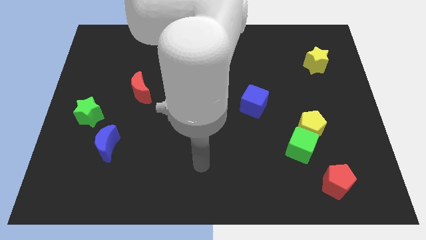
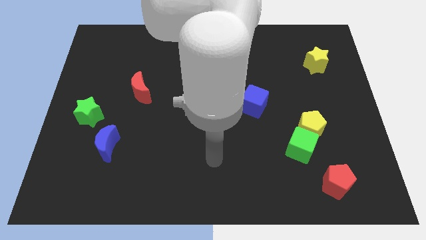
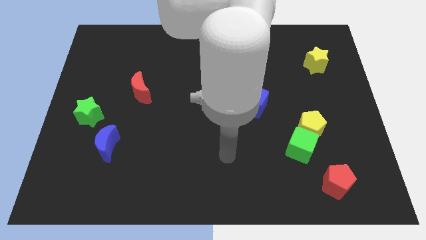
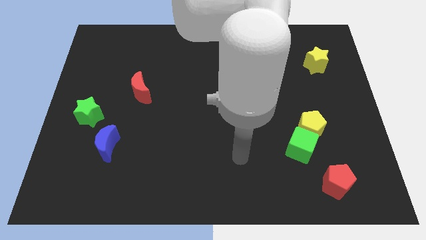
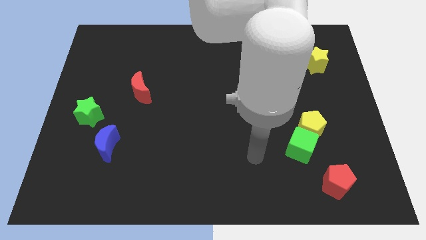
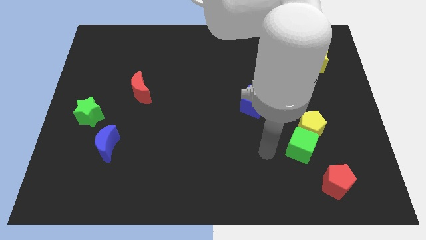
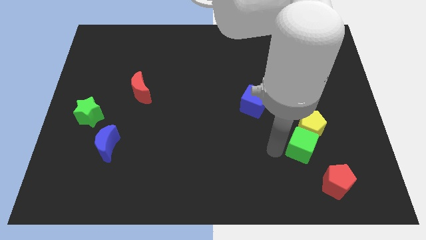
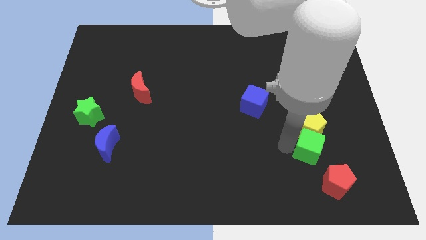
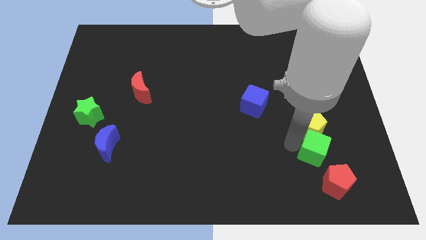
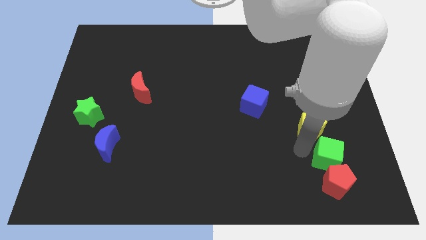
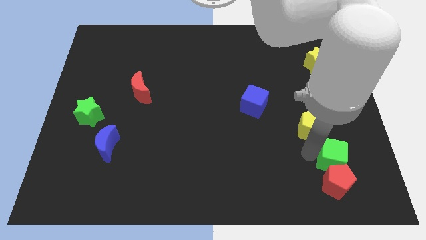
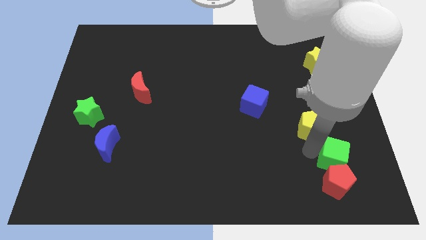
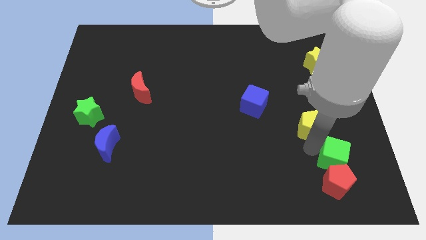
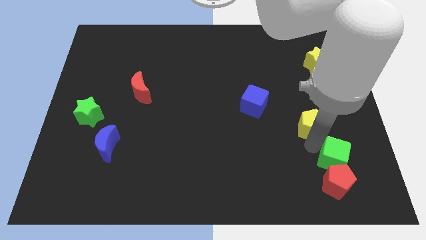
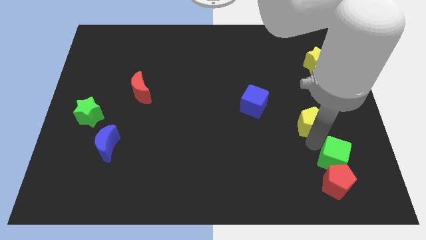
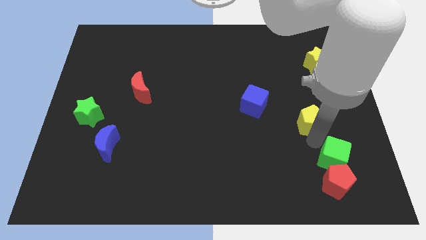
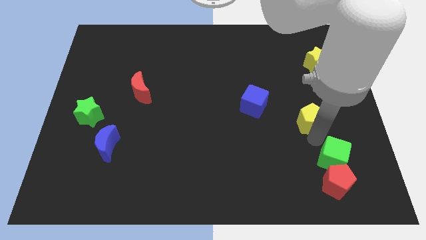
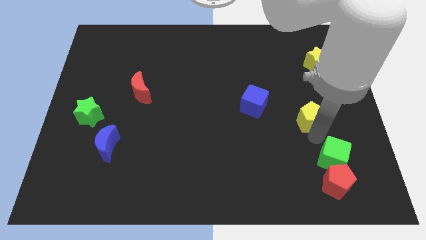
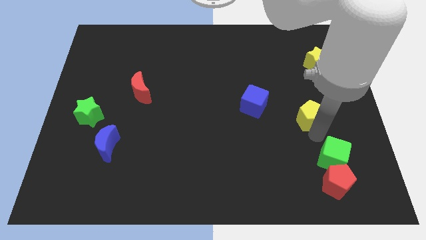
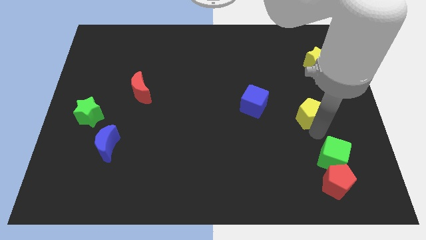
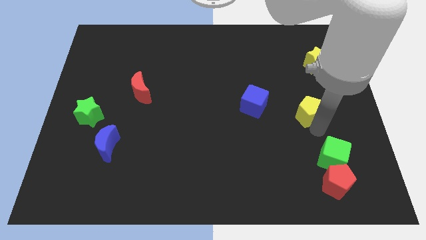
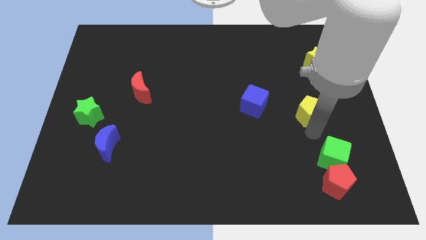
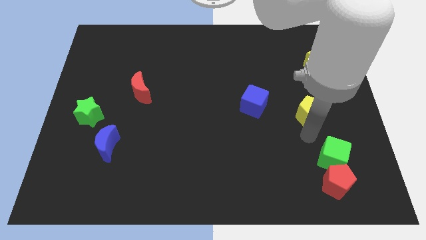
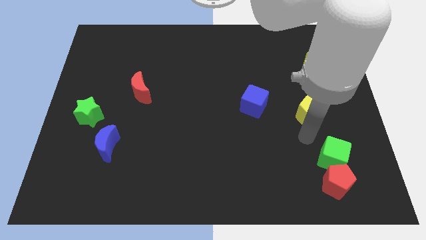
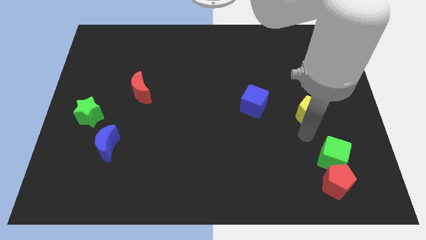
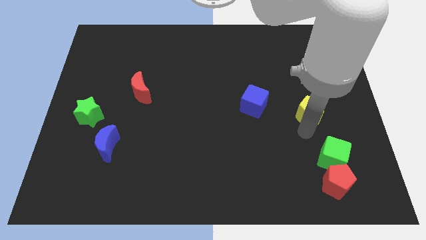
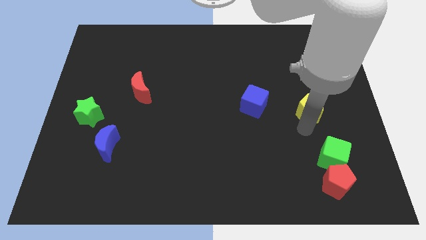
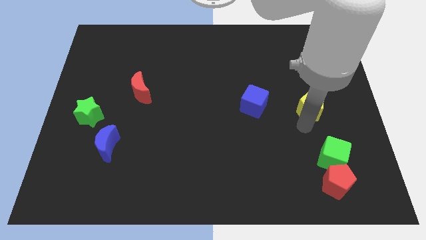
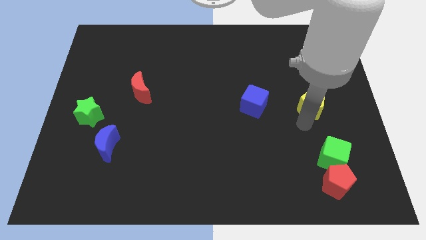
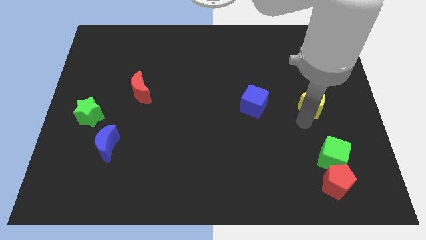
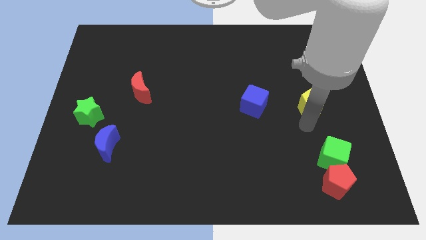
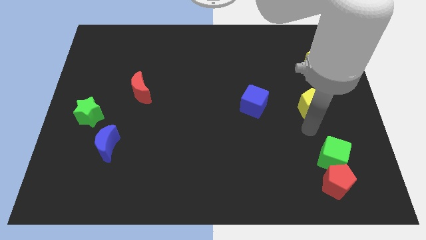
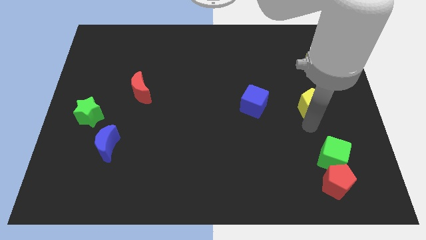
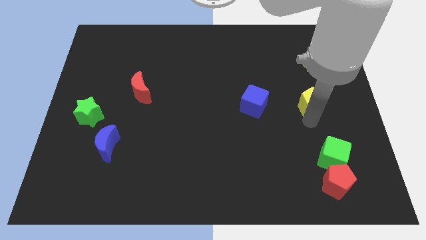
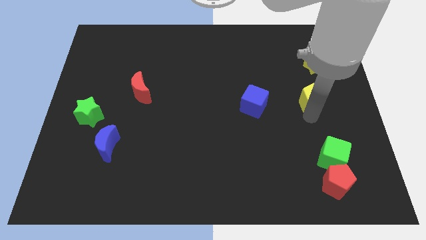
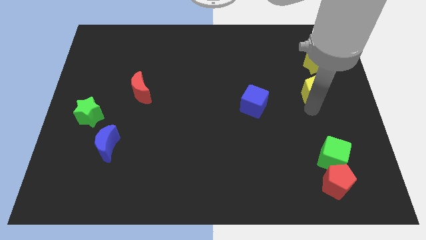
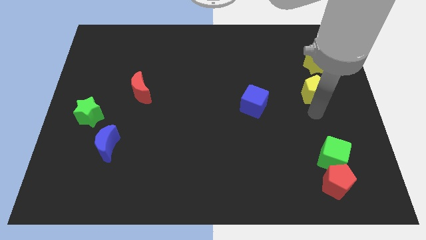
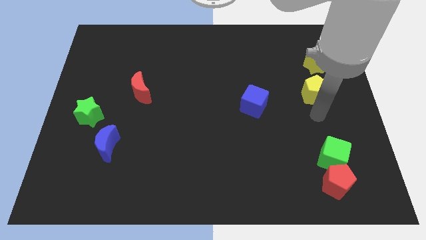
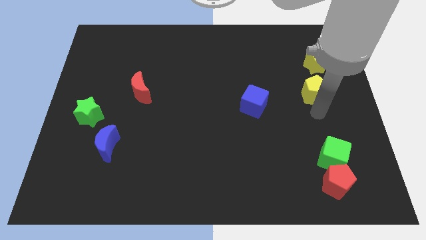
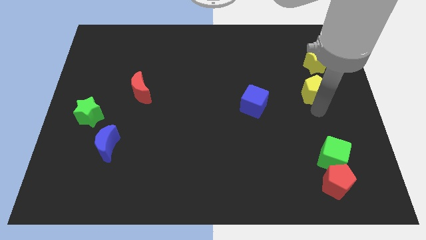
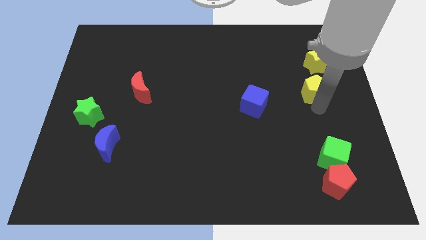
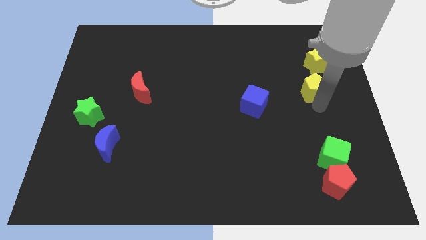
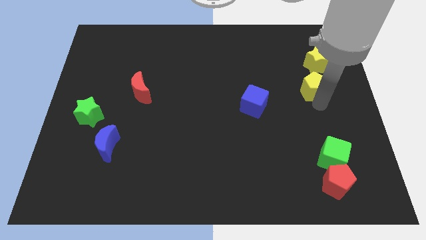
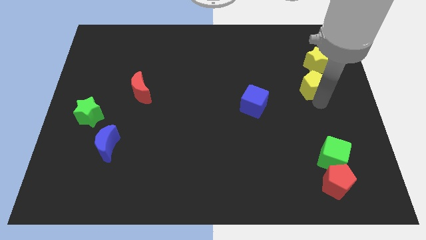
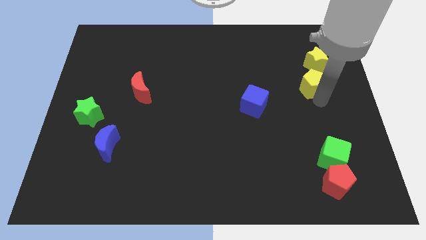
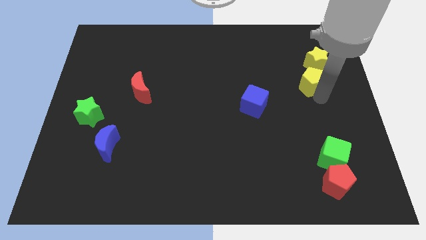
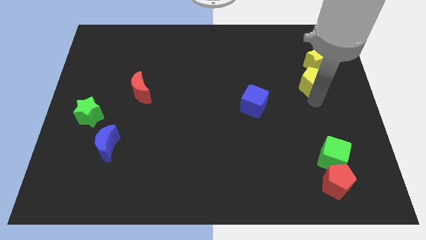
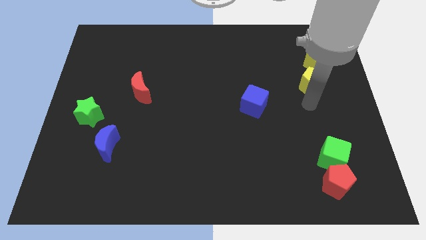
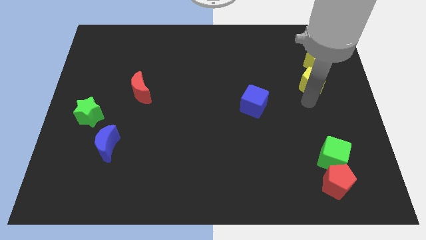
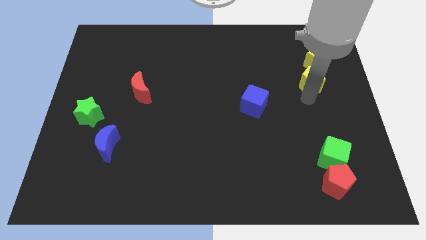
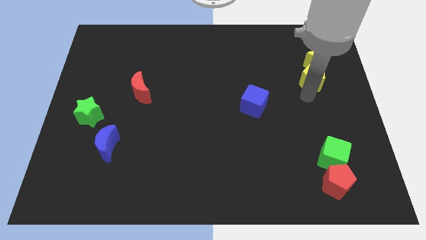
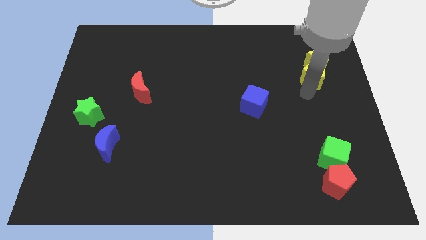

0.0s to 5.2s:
put the yellow pentagon towards the yellow star

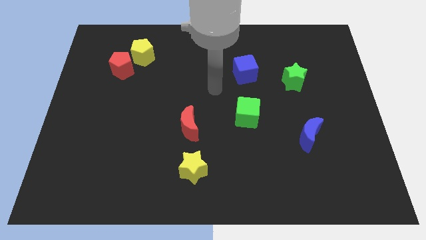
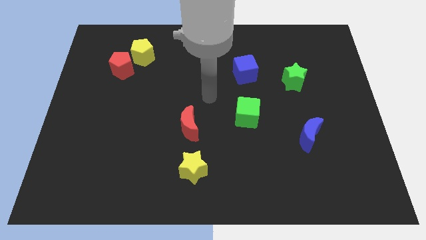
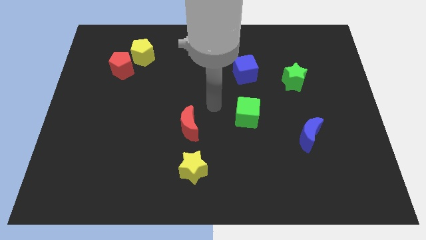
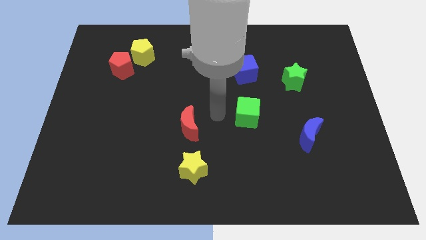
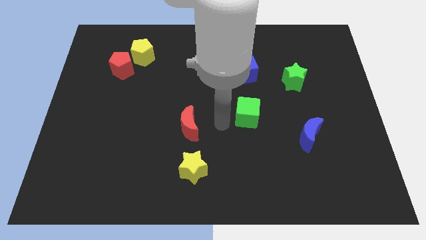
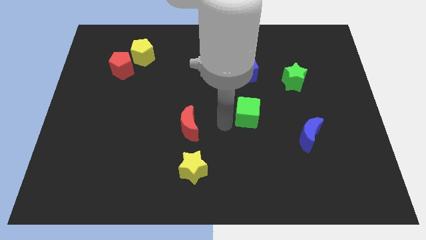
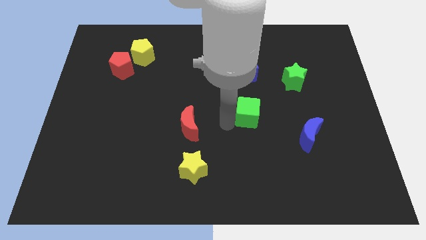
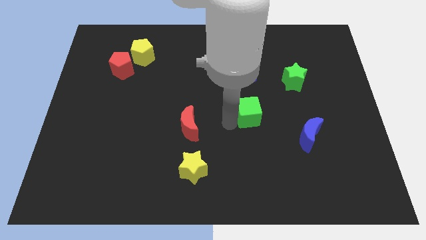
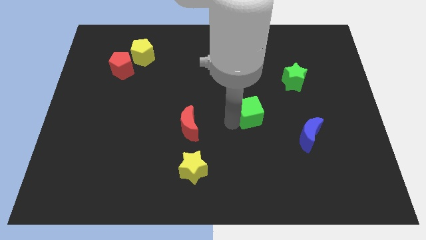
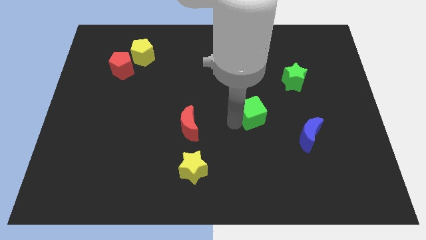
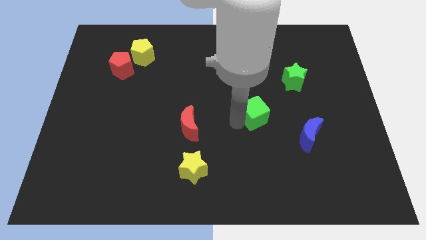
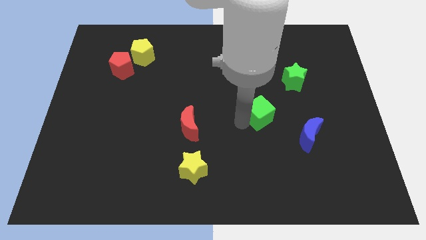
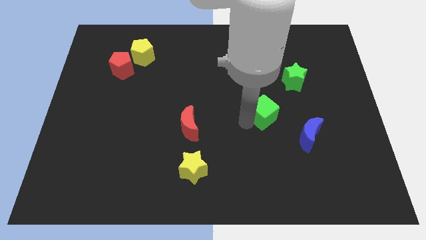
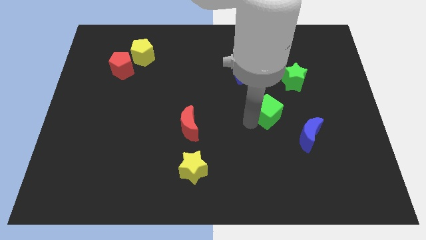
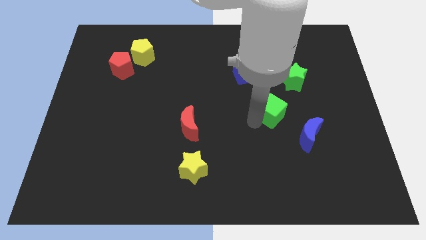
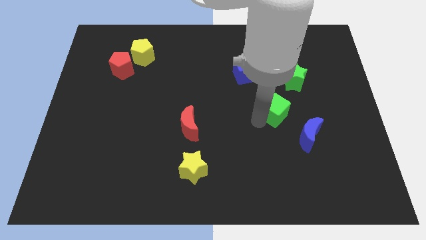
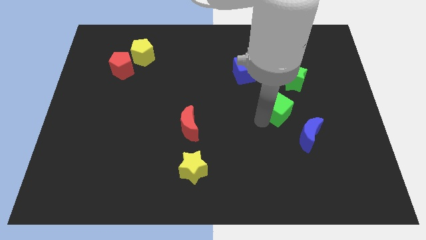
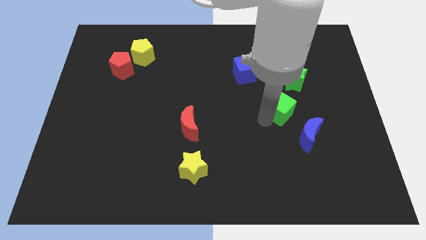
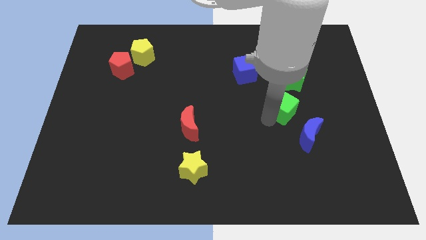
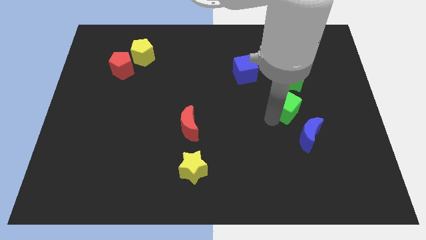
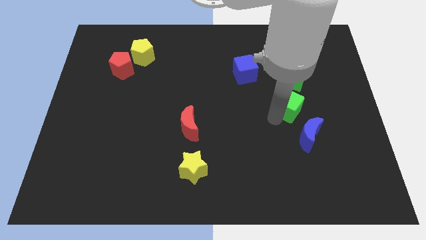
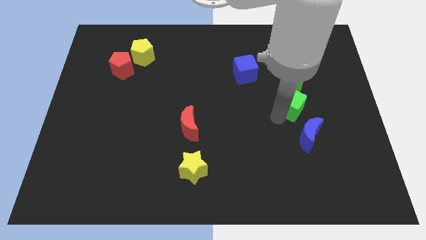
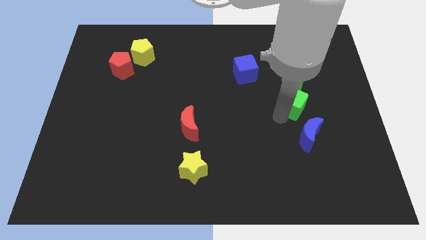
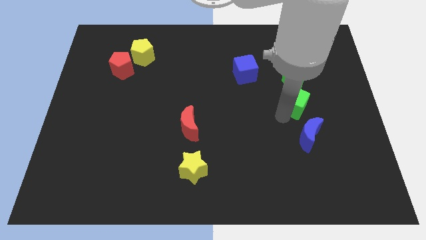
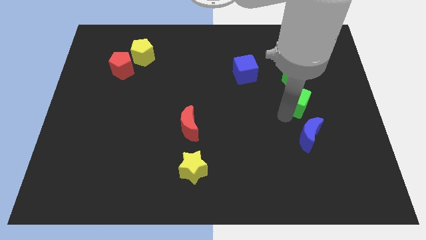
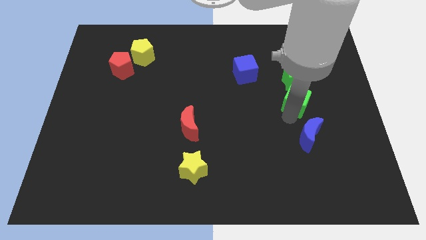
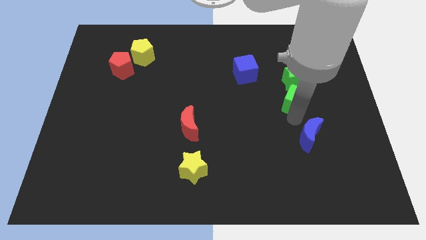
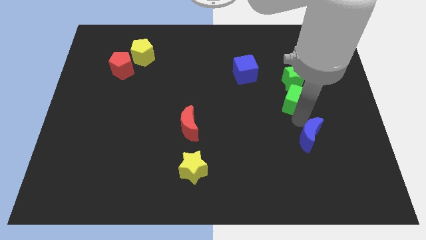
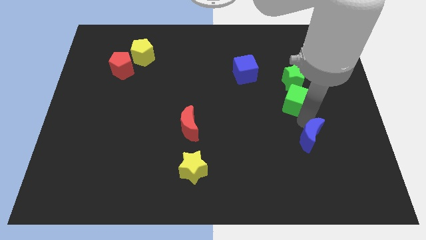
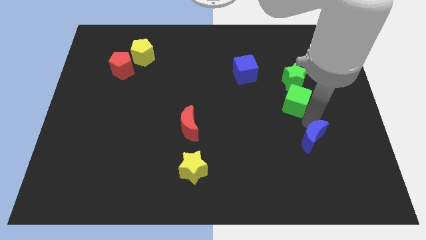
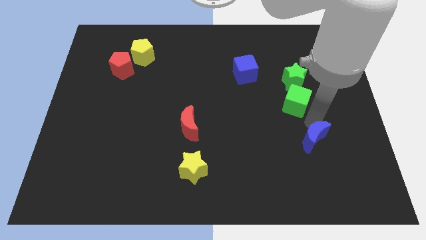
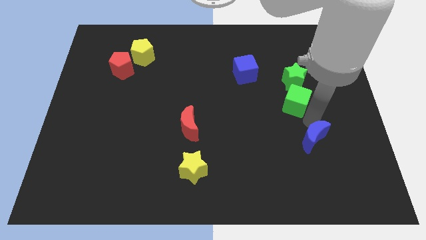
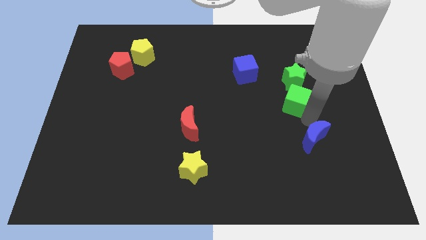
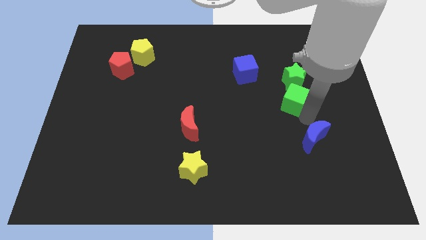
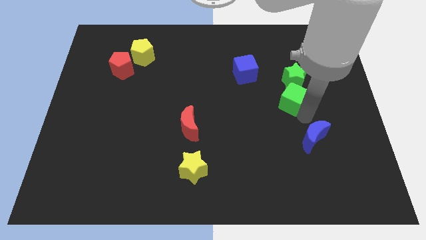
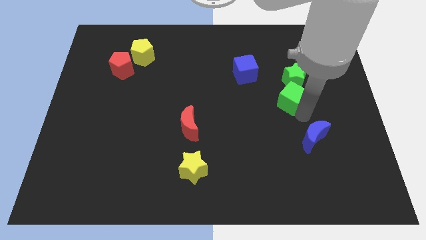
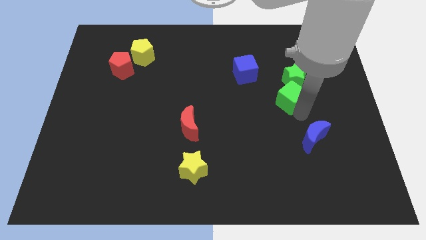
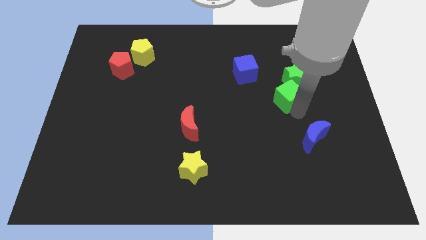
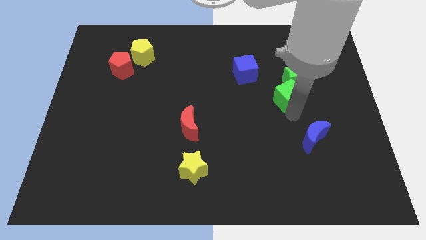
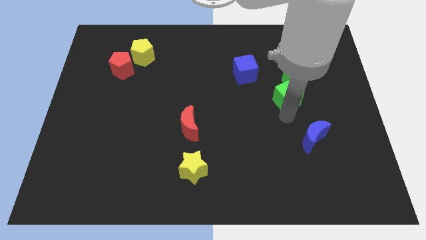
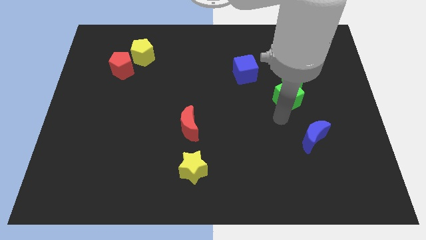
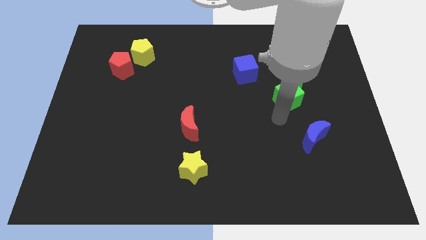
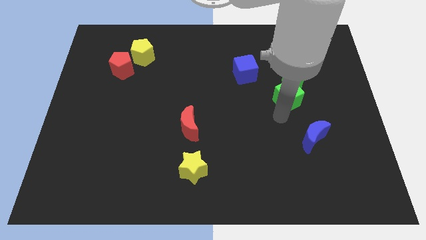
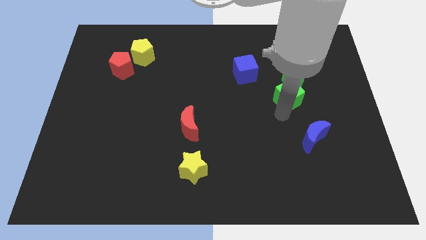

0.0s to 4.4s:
put the green cube close to the green star
